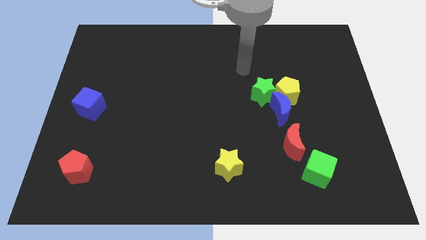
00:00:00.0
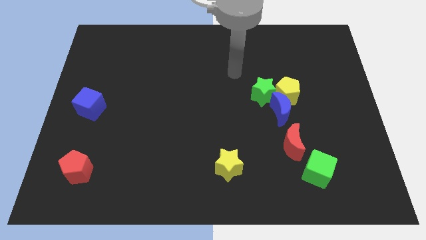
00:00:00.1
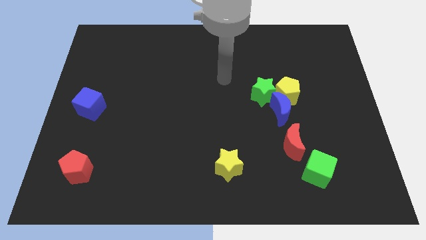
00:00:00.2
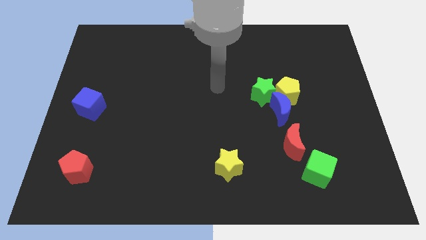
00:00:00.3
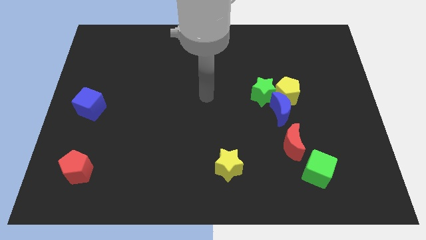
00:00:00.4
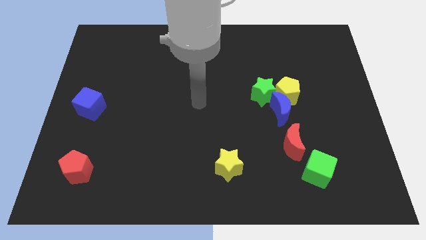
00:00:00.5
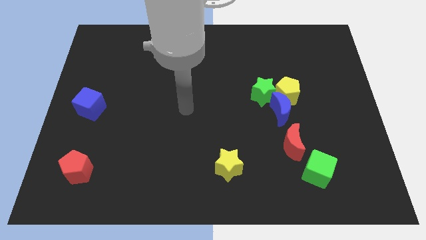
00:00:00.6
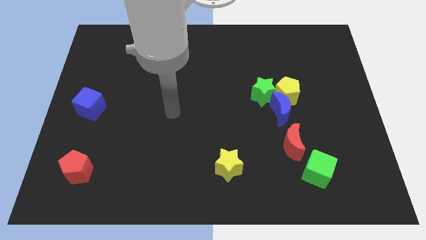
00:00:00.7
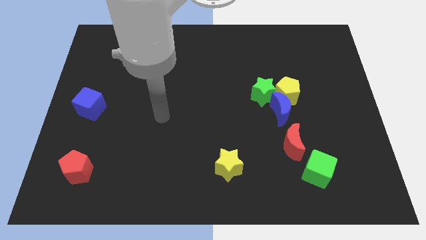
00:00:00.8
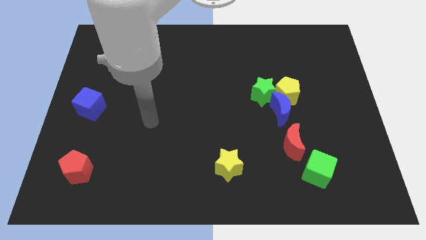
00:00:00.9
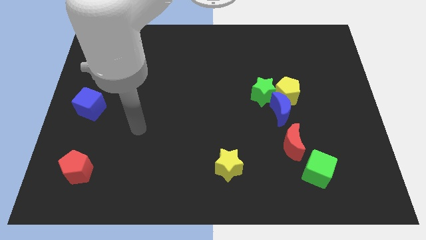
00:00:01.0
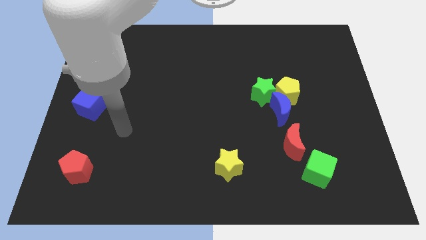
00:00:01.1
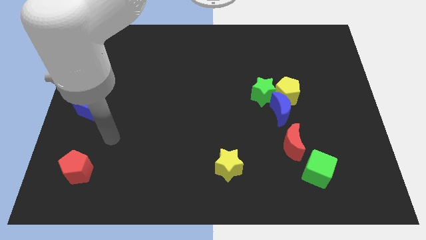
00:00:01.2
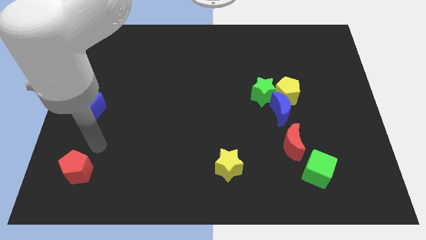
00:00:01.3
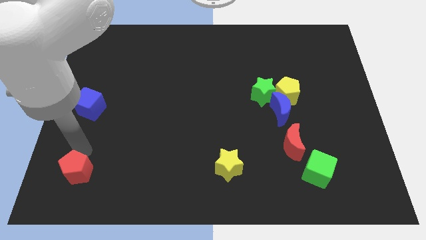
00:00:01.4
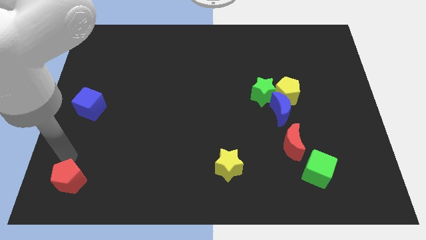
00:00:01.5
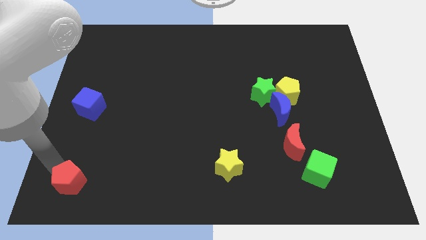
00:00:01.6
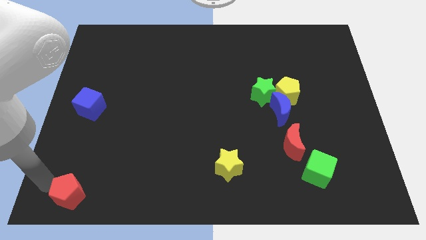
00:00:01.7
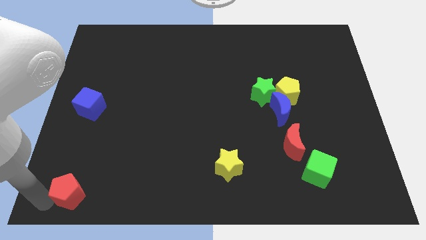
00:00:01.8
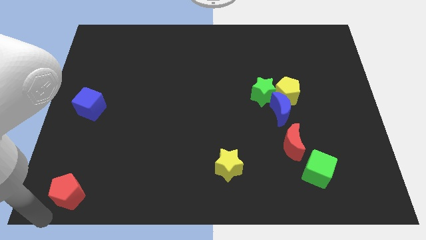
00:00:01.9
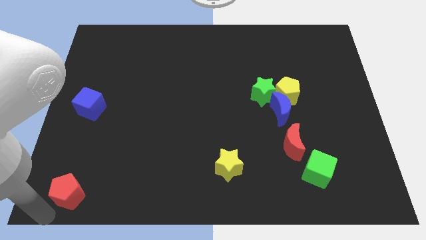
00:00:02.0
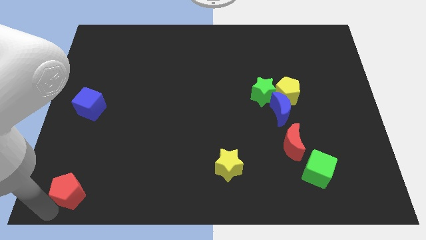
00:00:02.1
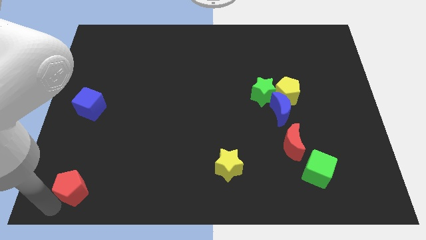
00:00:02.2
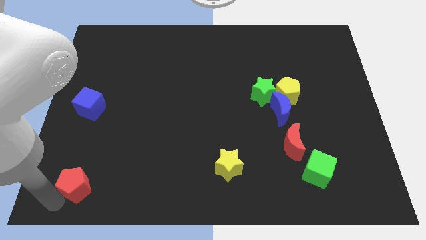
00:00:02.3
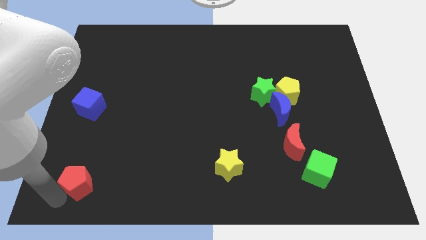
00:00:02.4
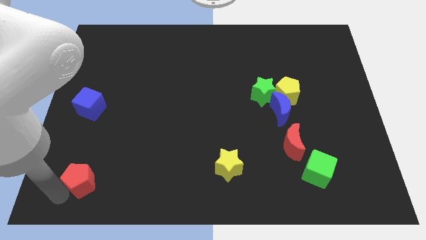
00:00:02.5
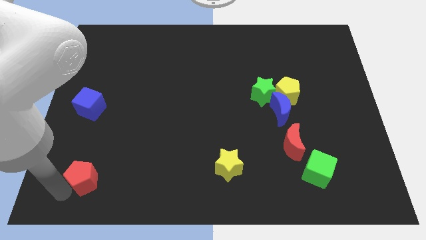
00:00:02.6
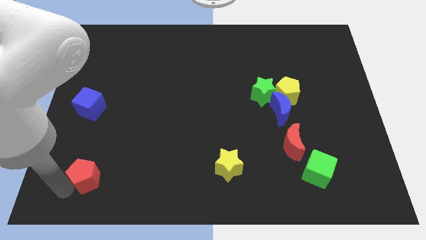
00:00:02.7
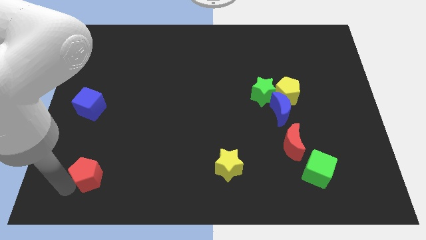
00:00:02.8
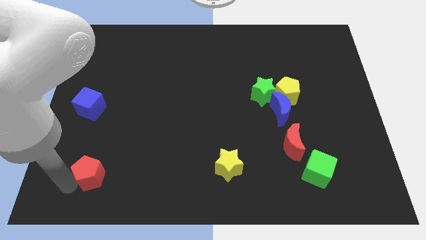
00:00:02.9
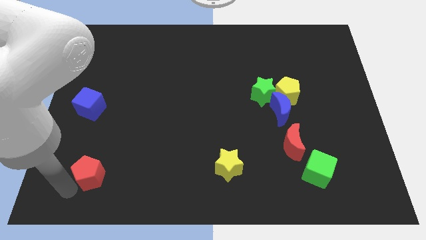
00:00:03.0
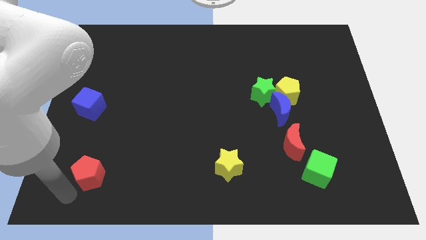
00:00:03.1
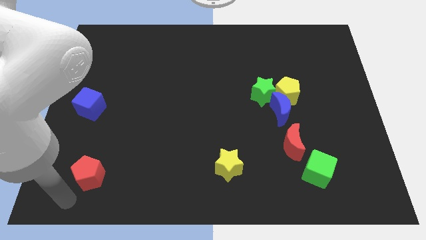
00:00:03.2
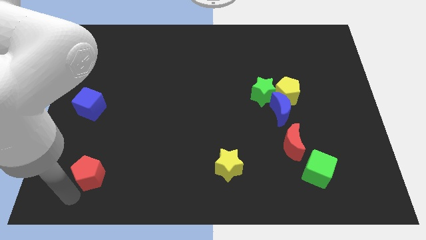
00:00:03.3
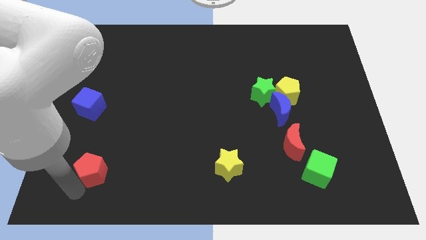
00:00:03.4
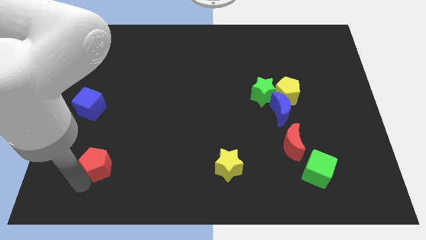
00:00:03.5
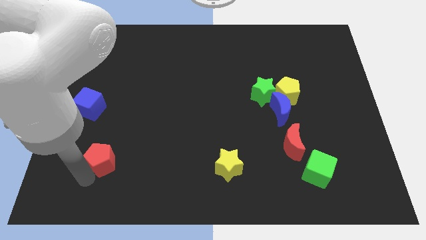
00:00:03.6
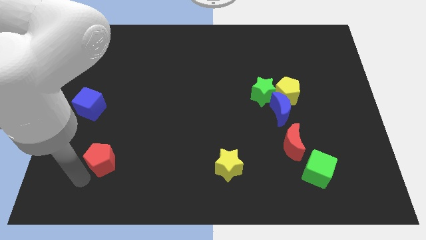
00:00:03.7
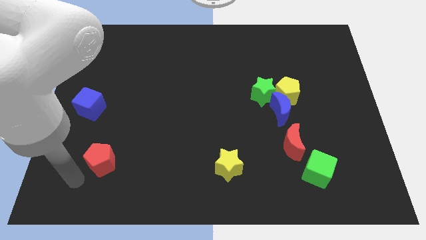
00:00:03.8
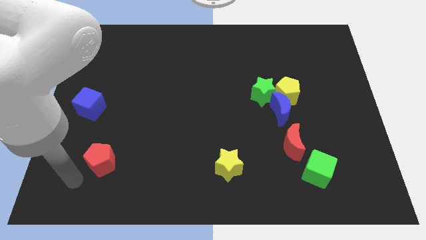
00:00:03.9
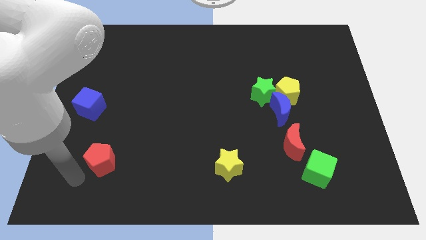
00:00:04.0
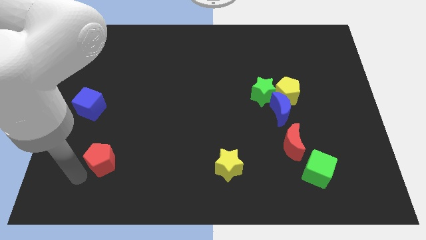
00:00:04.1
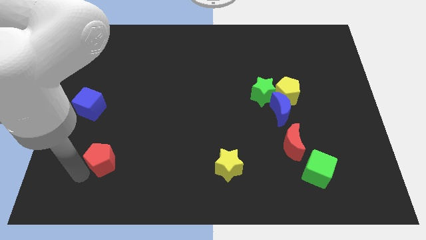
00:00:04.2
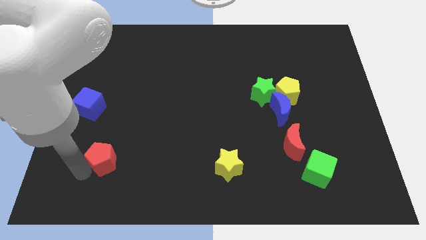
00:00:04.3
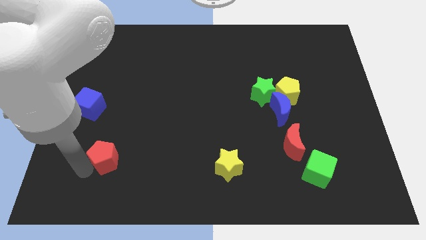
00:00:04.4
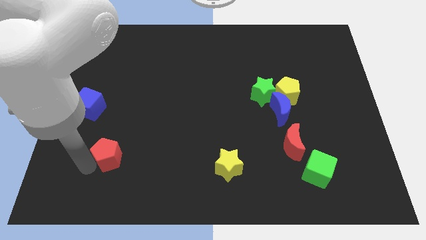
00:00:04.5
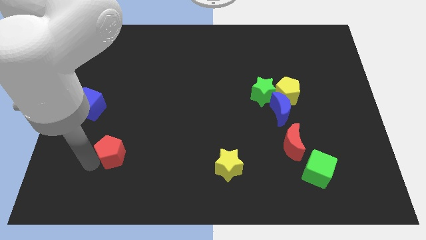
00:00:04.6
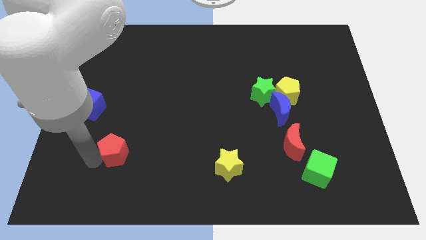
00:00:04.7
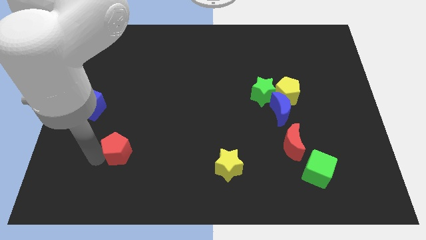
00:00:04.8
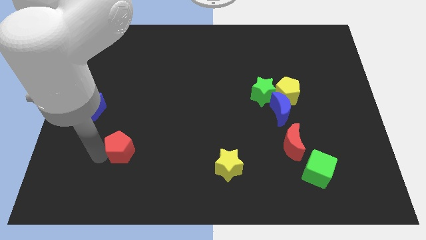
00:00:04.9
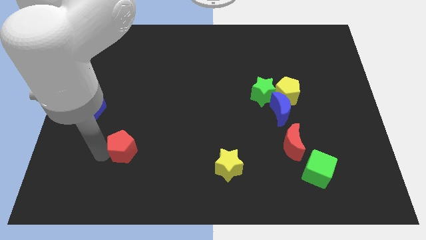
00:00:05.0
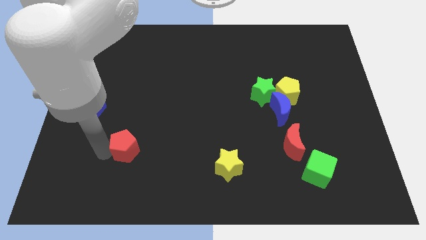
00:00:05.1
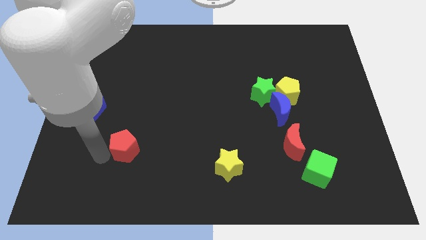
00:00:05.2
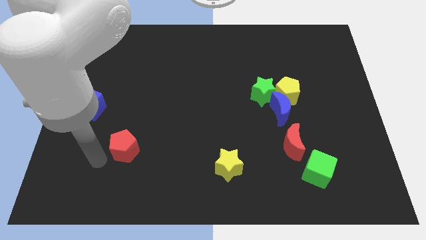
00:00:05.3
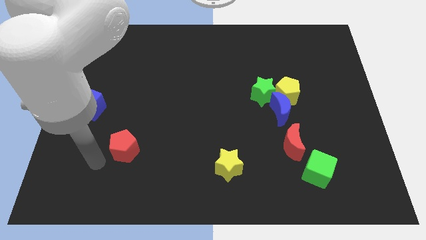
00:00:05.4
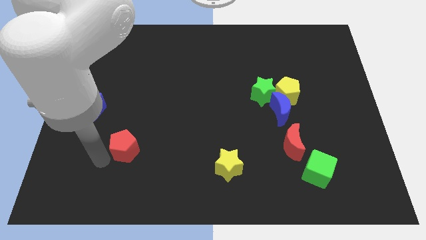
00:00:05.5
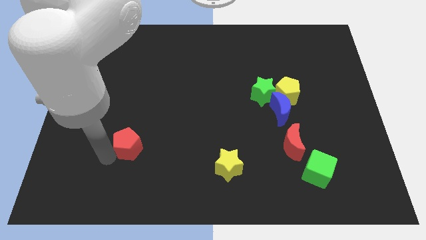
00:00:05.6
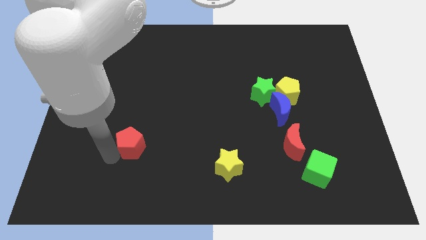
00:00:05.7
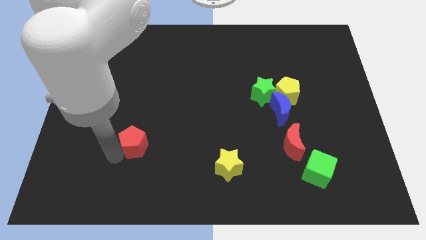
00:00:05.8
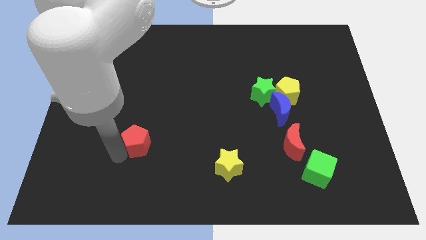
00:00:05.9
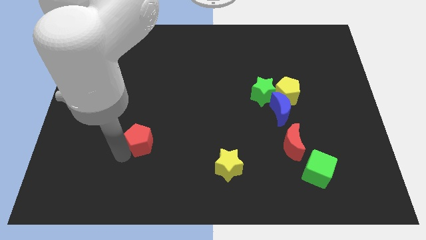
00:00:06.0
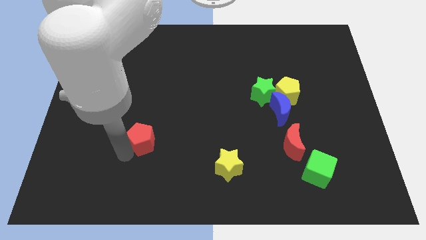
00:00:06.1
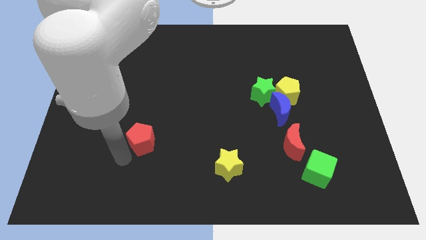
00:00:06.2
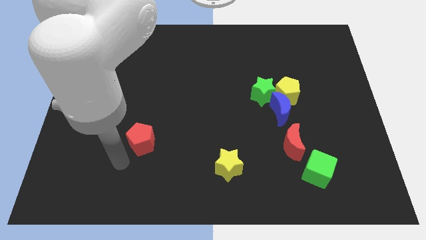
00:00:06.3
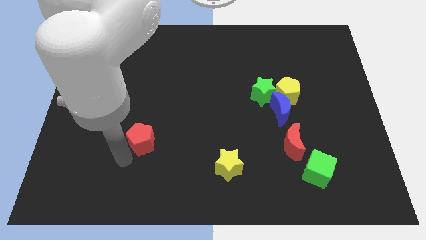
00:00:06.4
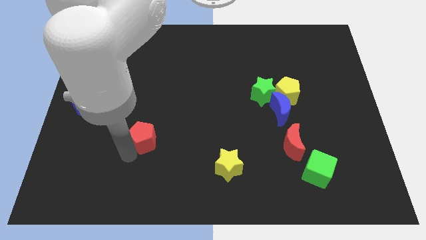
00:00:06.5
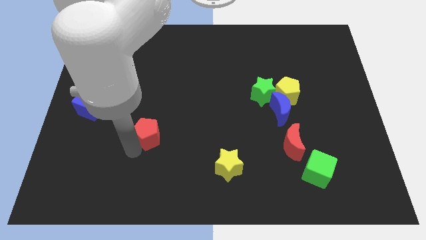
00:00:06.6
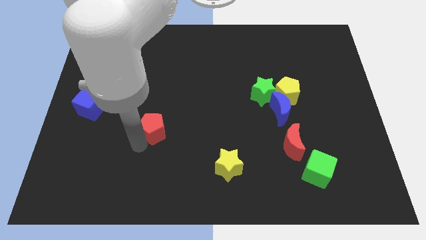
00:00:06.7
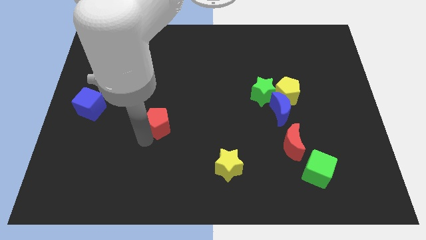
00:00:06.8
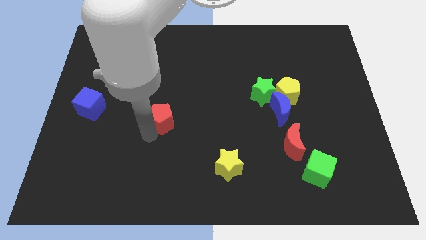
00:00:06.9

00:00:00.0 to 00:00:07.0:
push the red pentagon diagonally upwards and right

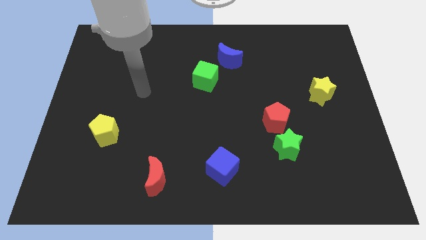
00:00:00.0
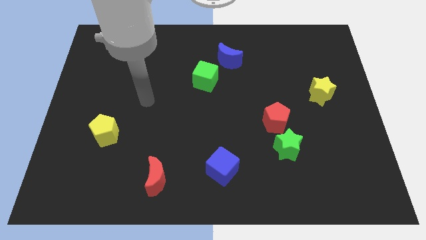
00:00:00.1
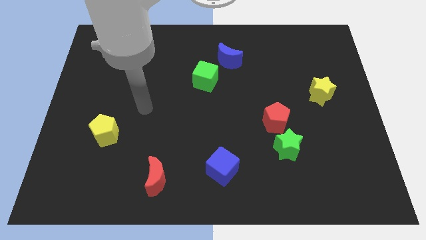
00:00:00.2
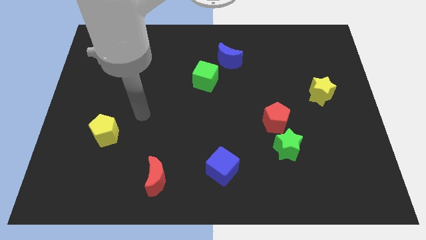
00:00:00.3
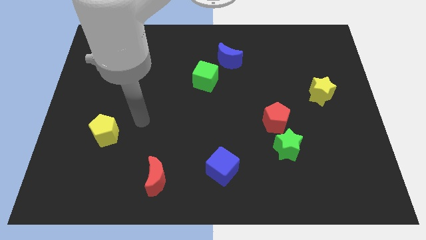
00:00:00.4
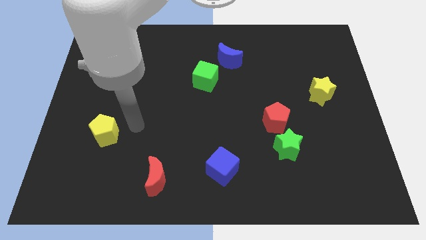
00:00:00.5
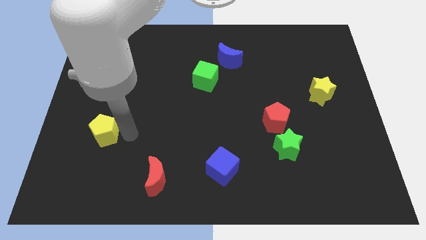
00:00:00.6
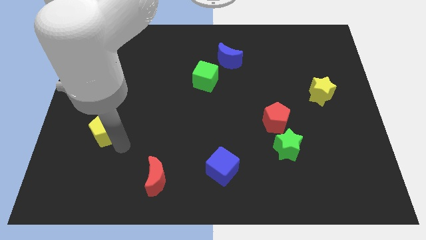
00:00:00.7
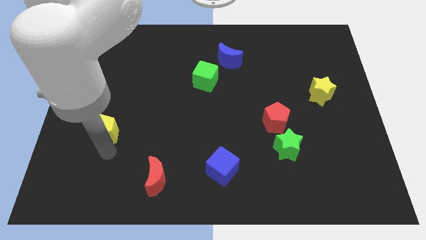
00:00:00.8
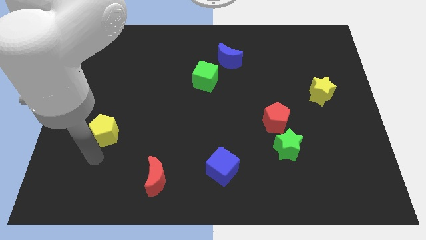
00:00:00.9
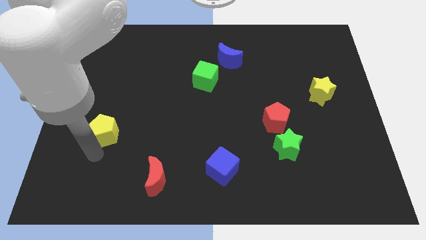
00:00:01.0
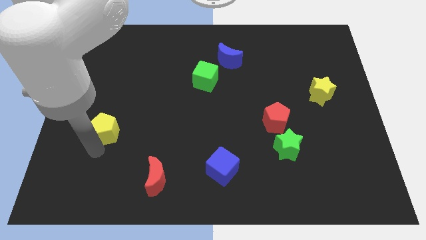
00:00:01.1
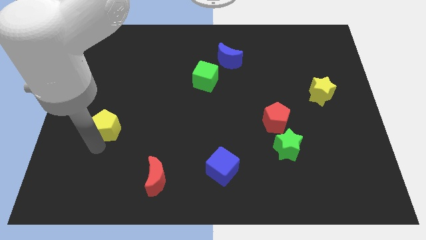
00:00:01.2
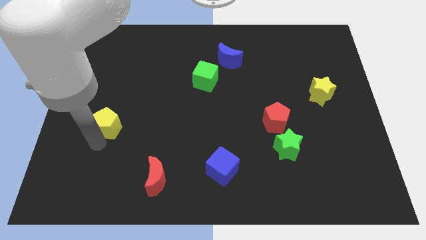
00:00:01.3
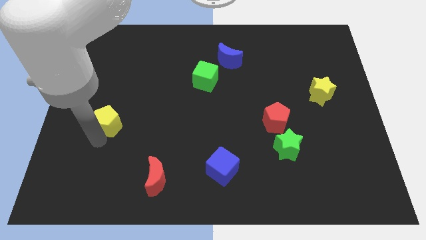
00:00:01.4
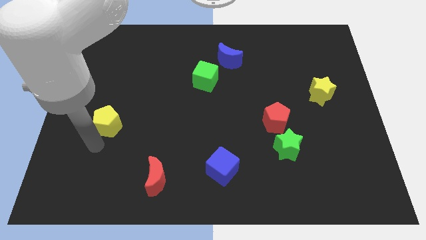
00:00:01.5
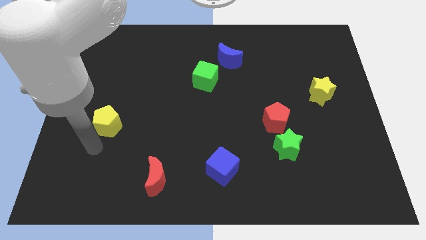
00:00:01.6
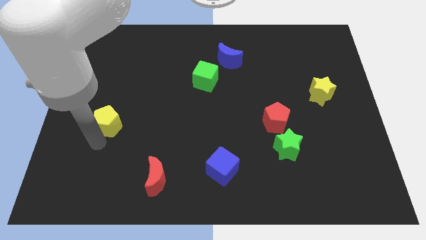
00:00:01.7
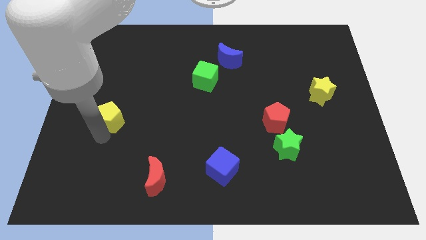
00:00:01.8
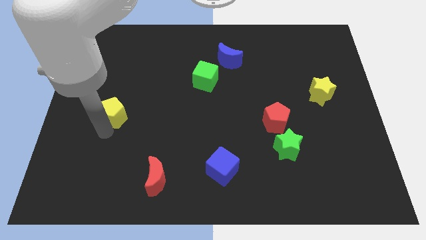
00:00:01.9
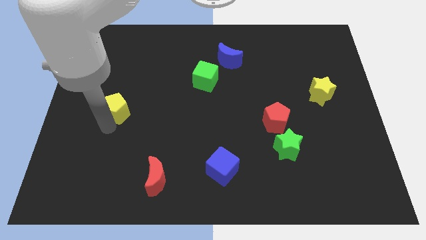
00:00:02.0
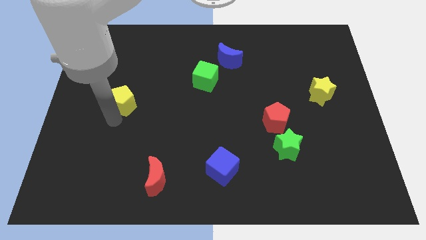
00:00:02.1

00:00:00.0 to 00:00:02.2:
slightly slide the yellow pentagon upwards
